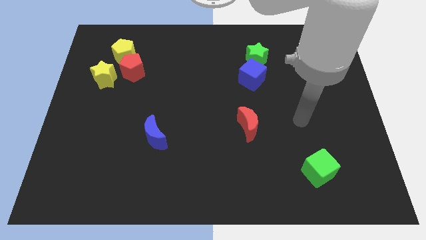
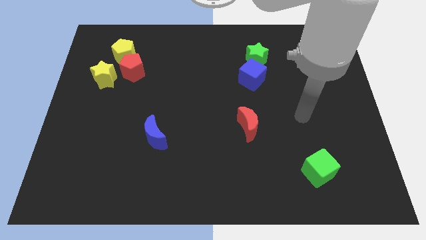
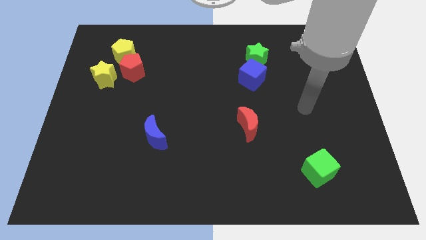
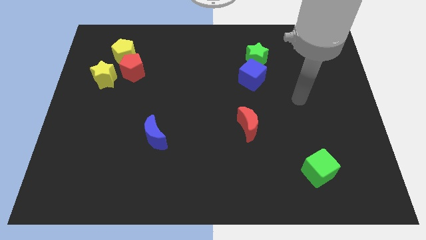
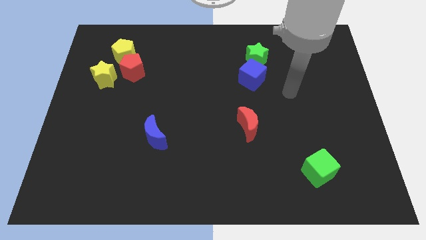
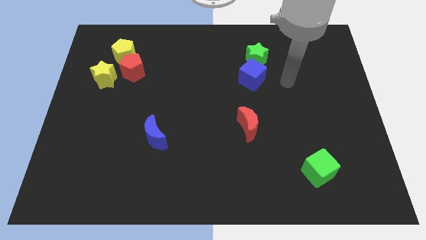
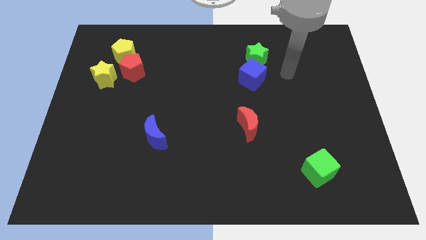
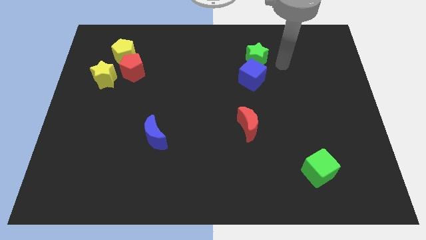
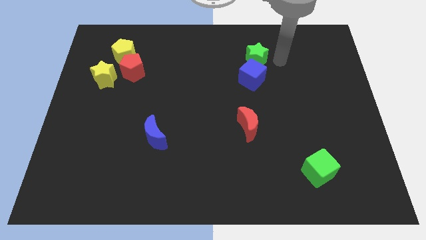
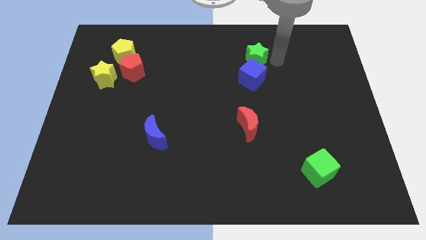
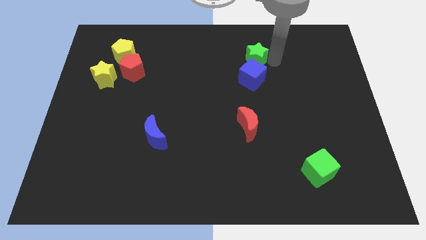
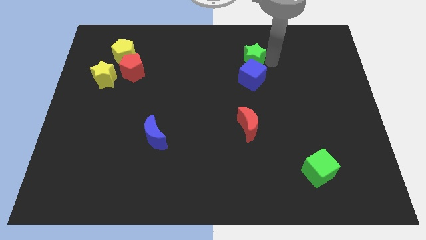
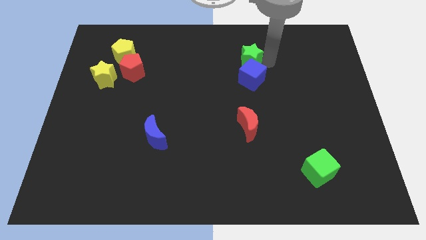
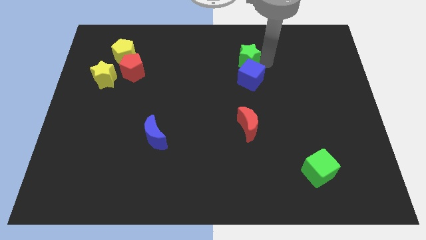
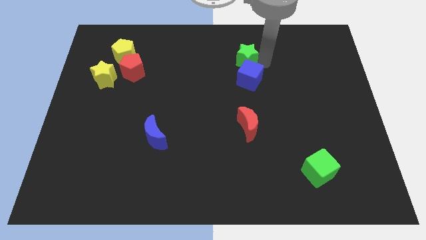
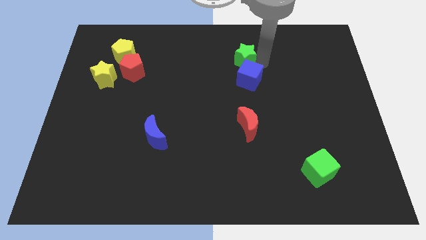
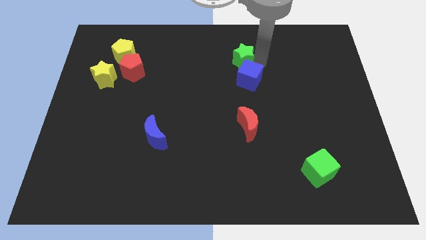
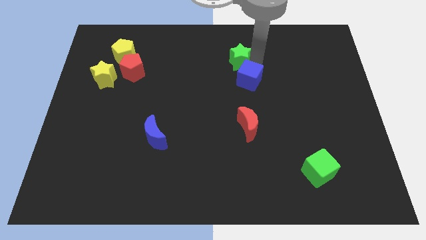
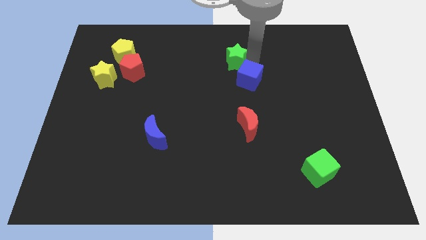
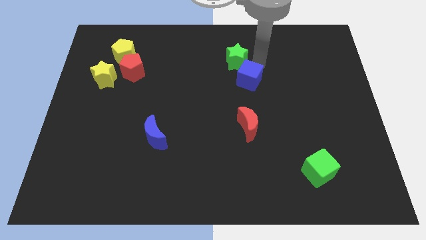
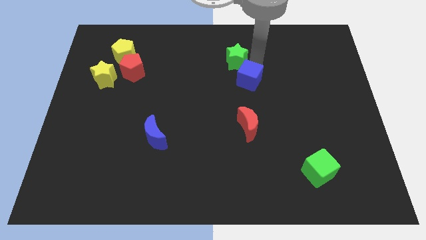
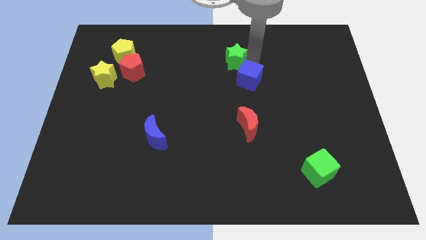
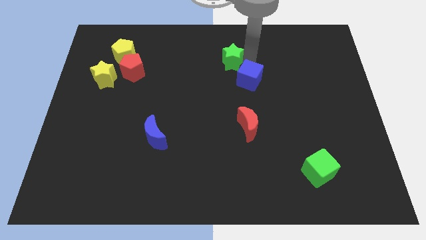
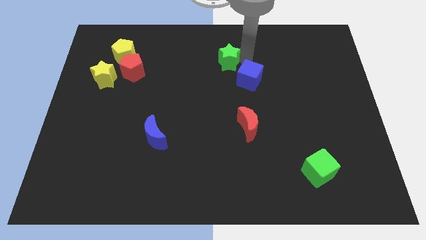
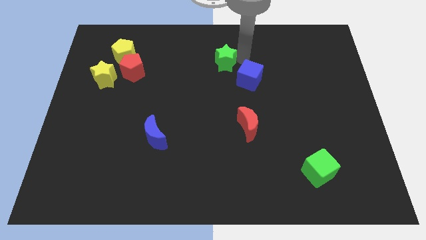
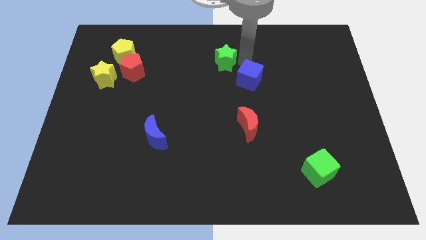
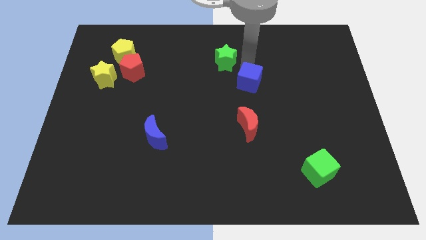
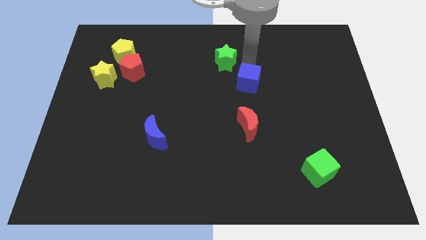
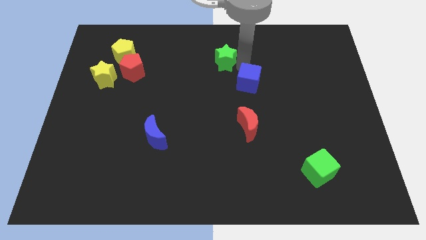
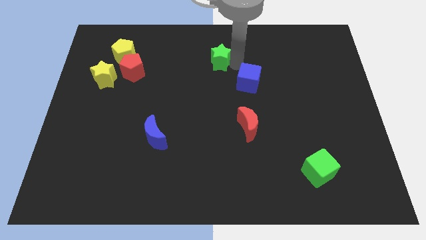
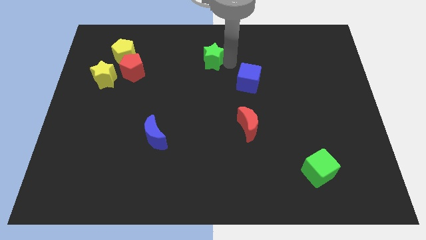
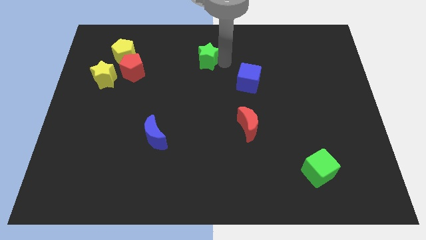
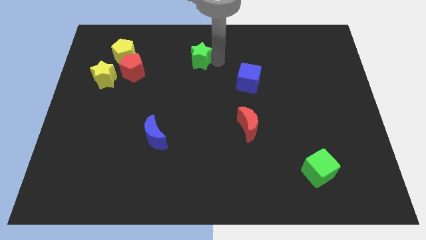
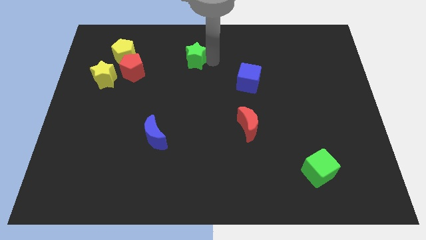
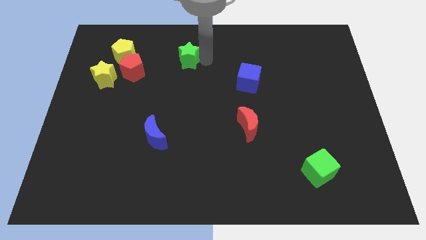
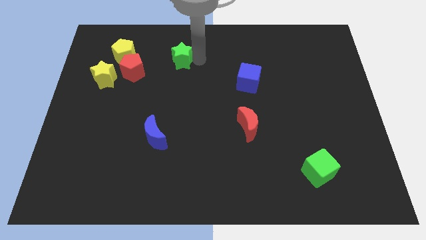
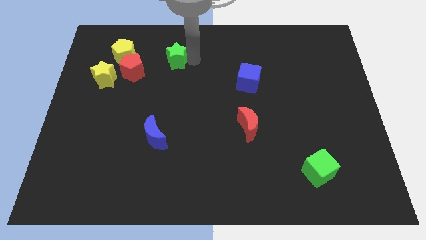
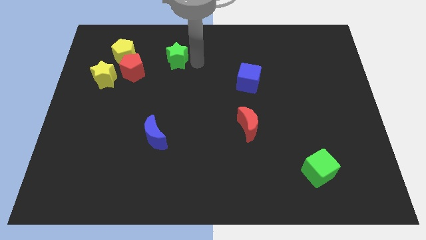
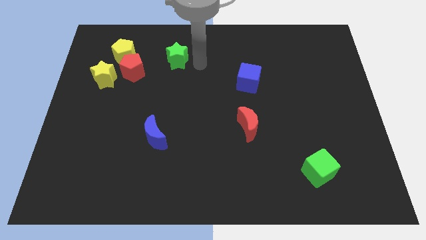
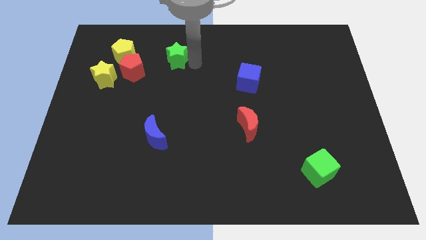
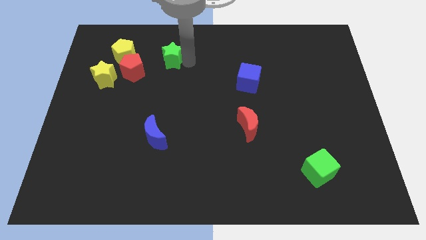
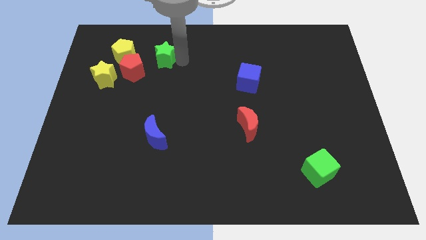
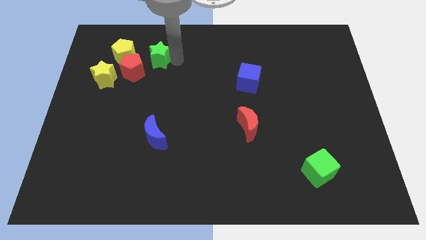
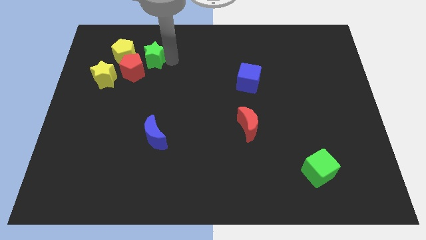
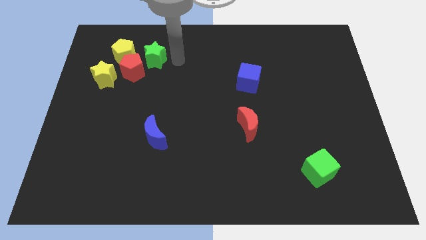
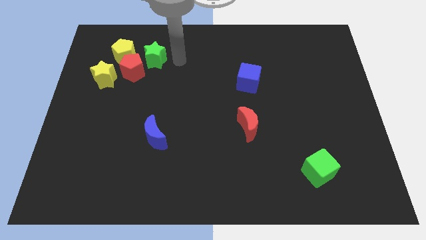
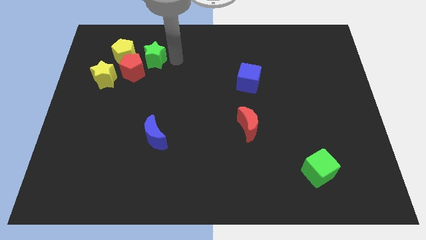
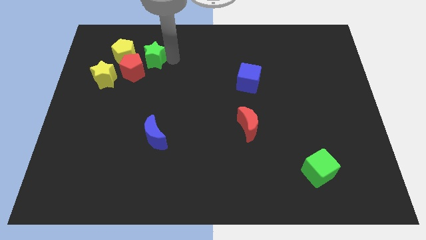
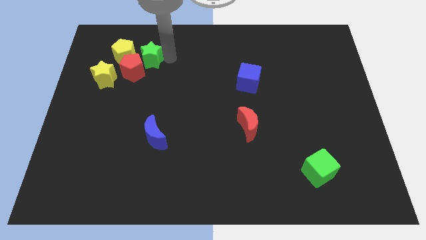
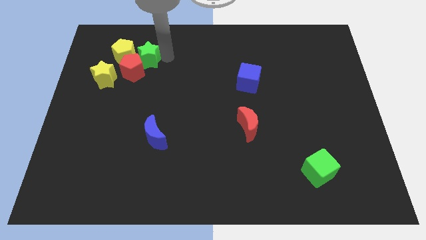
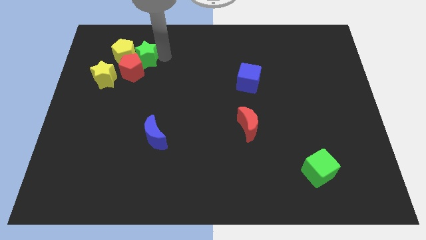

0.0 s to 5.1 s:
put the green star close to the yellow pentagon

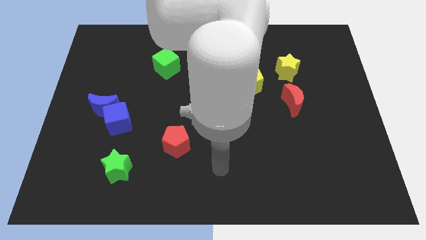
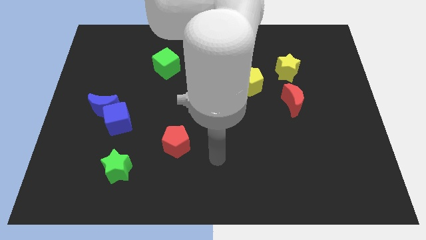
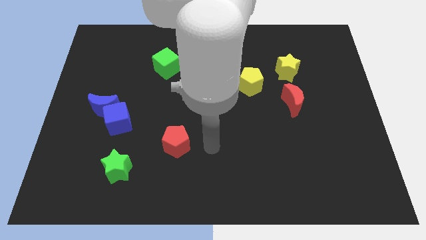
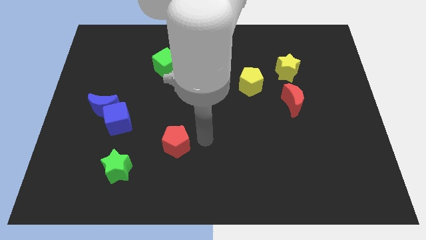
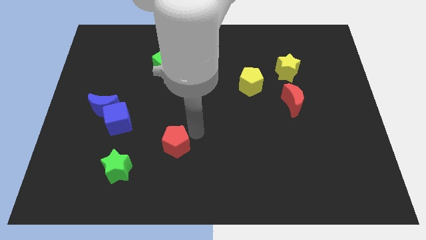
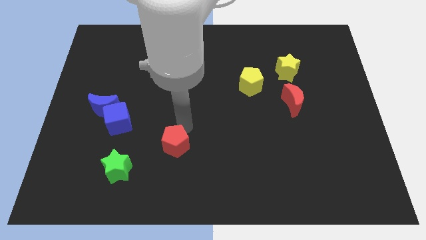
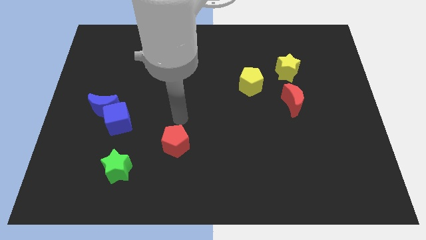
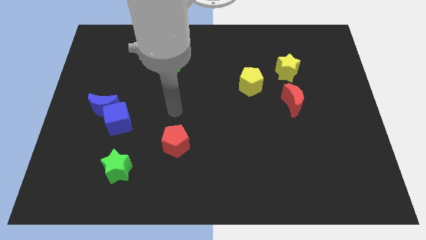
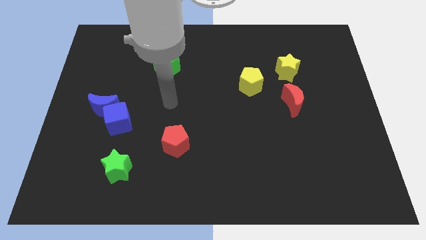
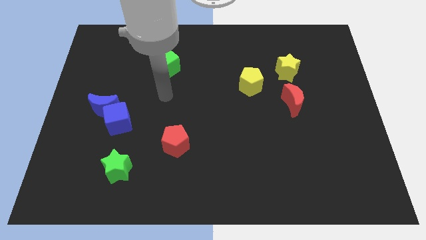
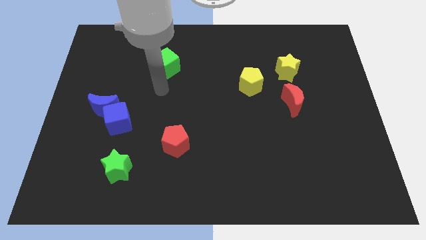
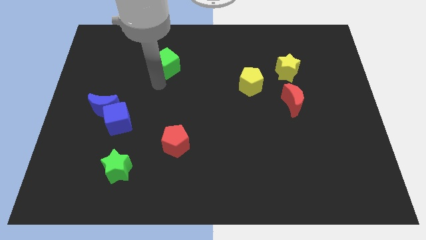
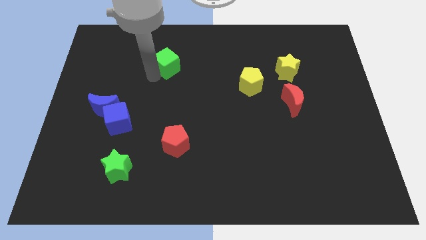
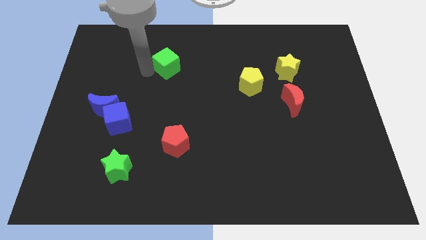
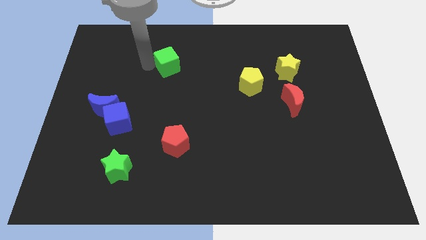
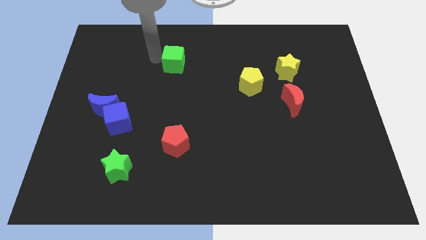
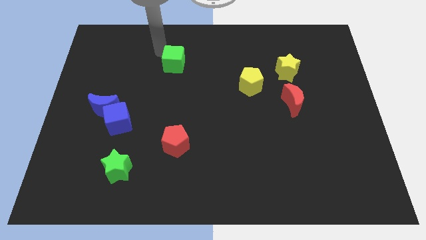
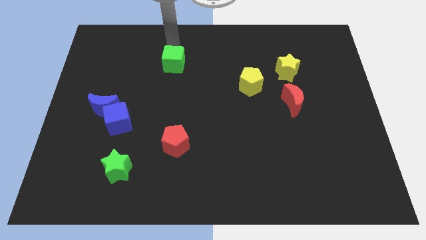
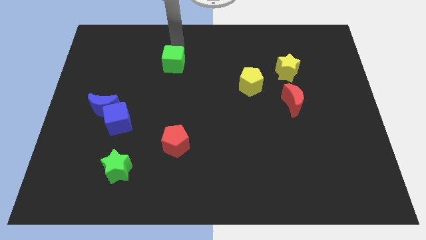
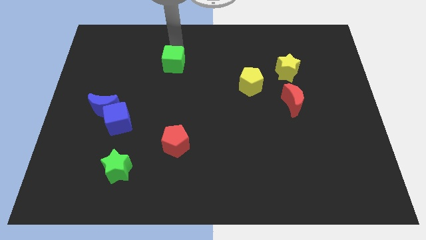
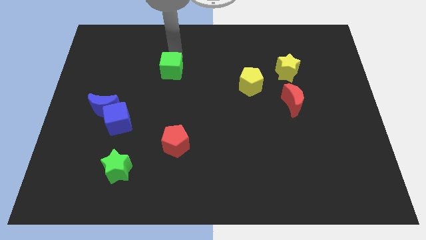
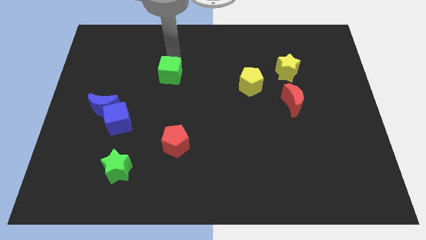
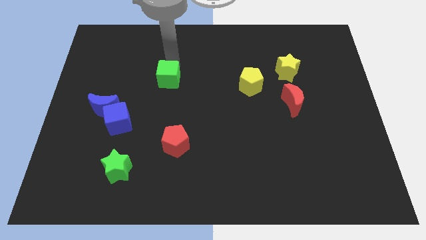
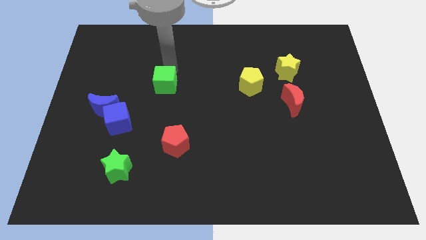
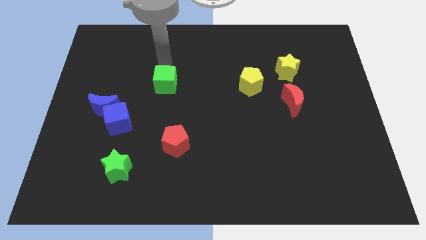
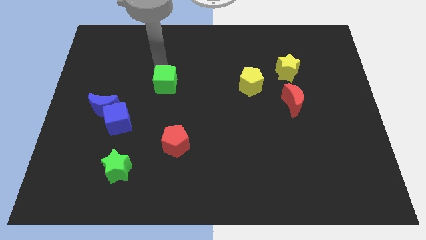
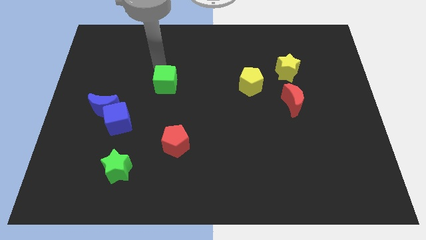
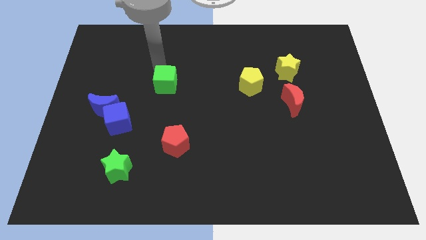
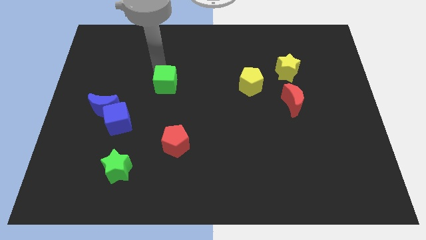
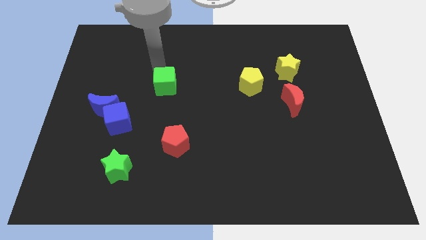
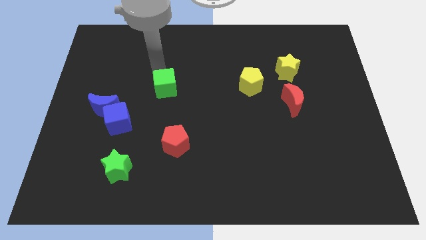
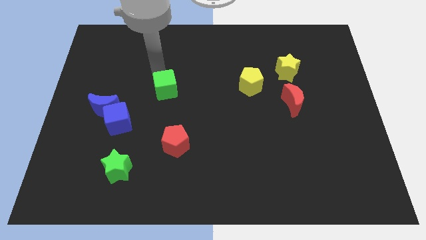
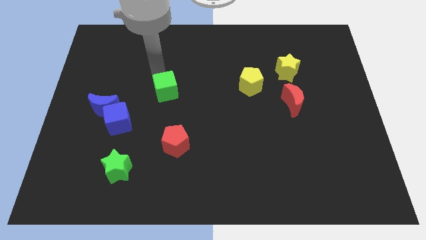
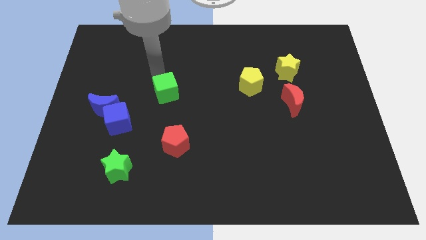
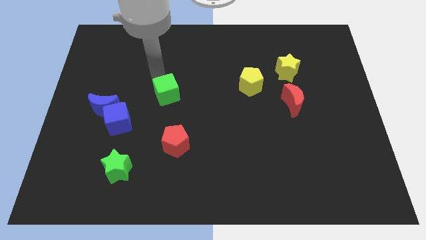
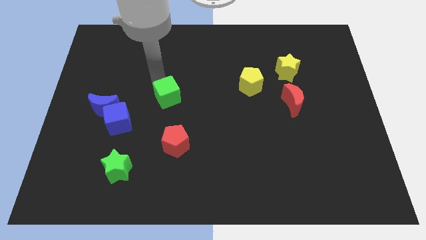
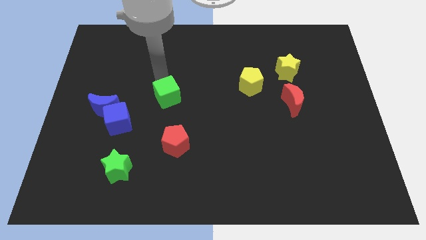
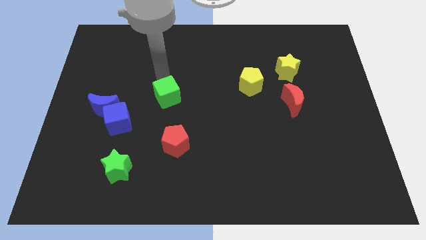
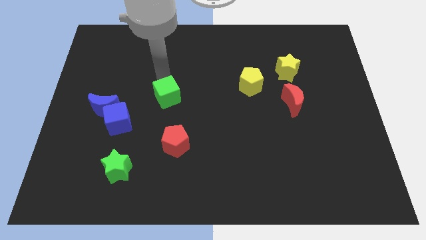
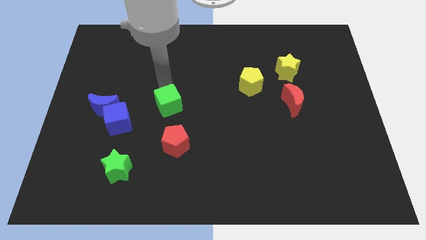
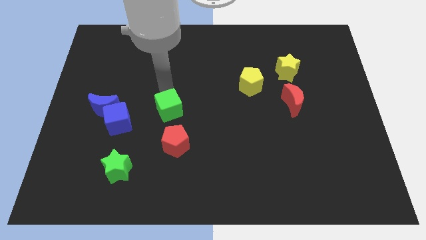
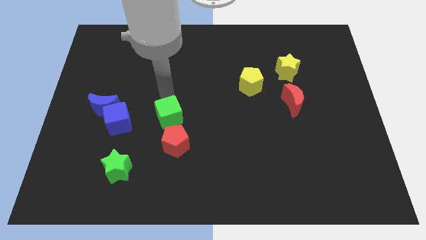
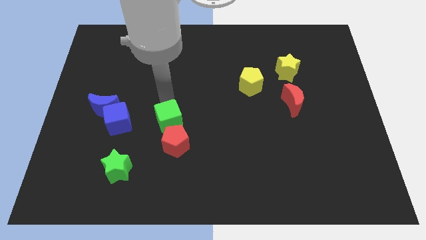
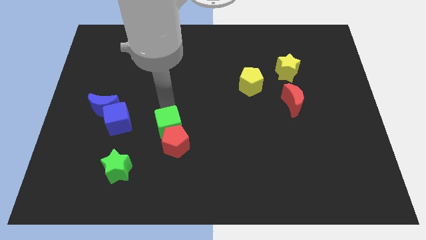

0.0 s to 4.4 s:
put the green cube close to the red pentagon
